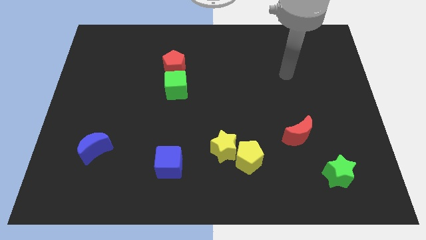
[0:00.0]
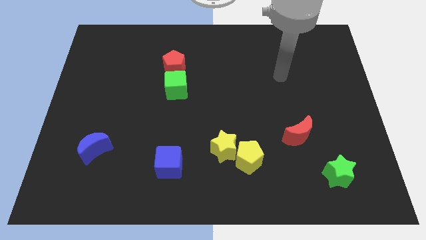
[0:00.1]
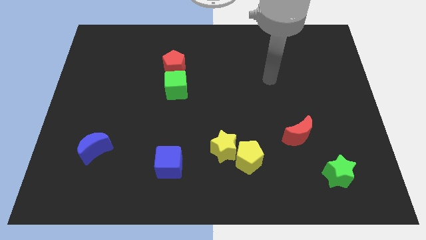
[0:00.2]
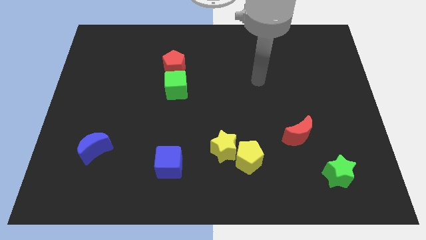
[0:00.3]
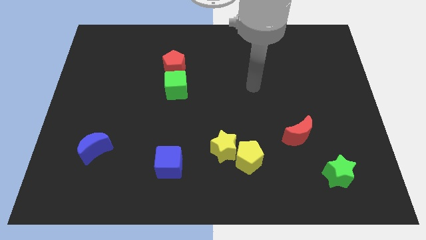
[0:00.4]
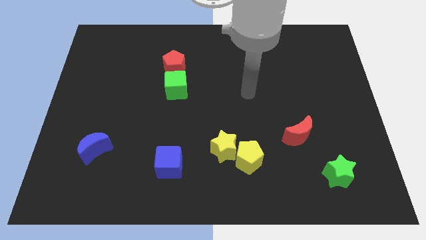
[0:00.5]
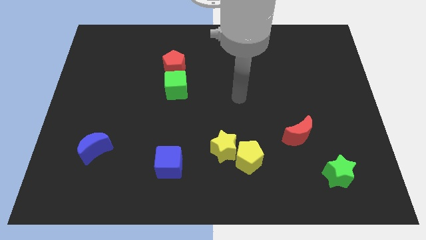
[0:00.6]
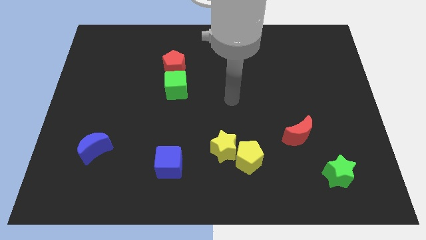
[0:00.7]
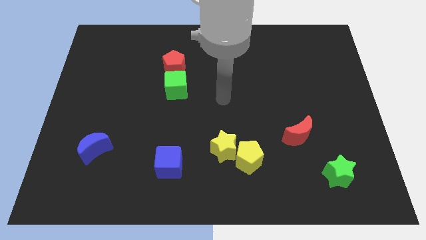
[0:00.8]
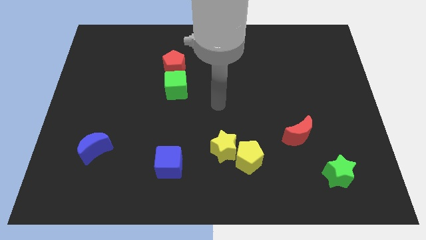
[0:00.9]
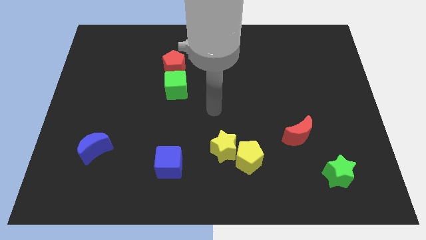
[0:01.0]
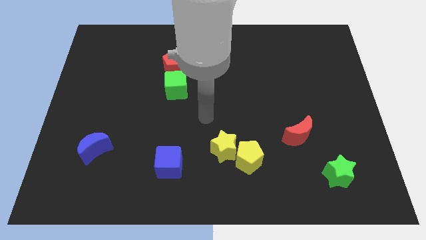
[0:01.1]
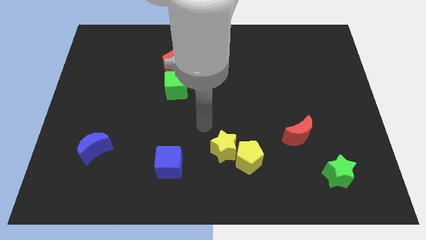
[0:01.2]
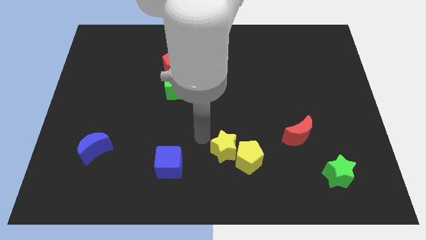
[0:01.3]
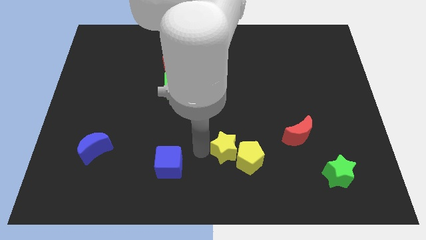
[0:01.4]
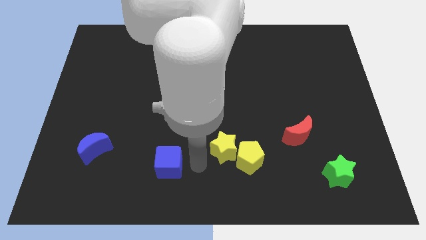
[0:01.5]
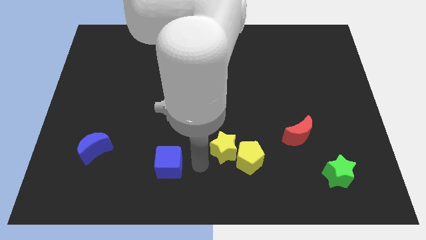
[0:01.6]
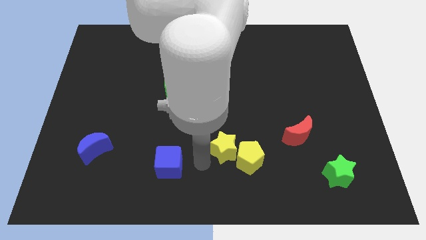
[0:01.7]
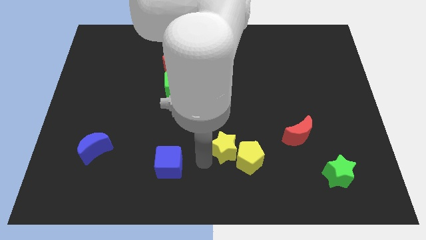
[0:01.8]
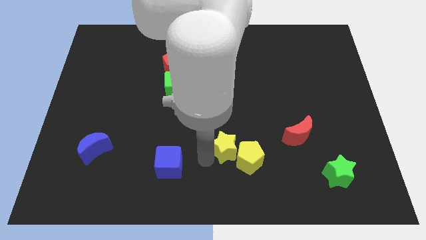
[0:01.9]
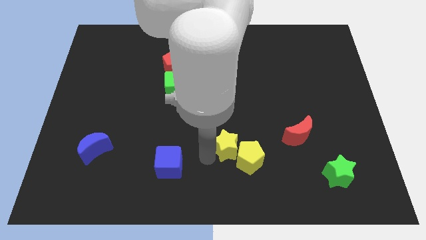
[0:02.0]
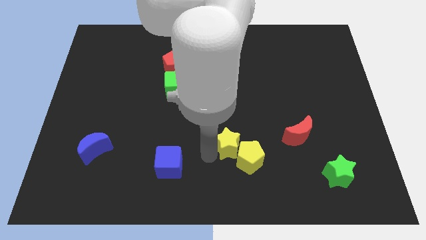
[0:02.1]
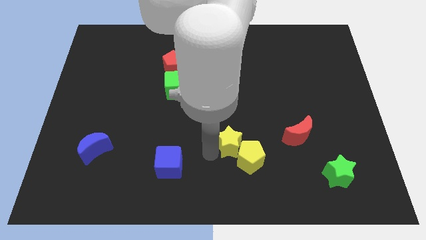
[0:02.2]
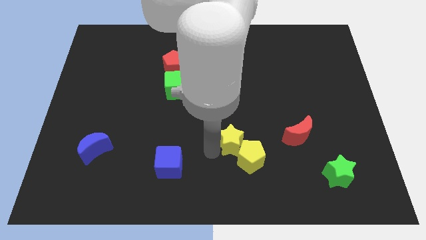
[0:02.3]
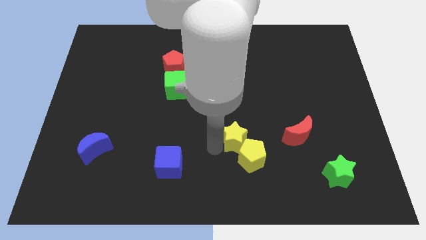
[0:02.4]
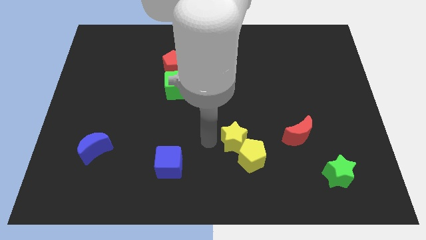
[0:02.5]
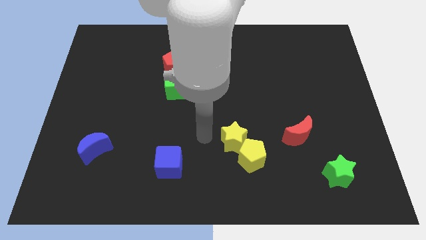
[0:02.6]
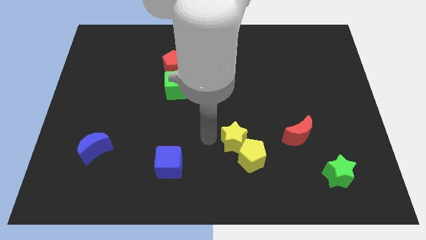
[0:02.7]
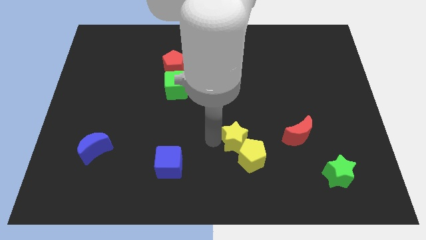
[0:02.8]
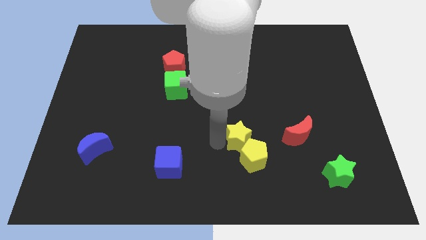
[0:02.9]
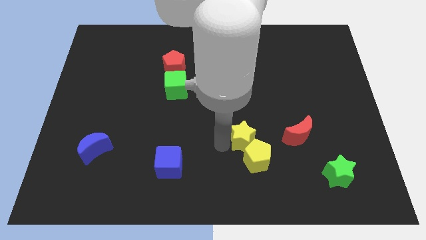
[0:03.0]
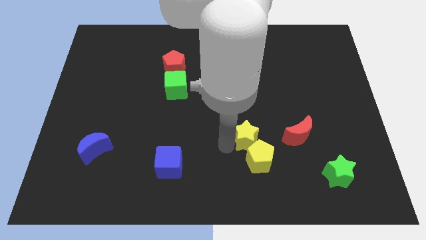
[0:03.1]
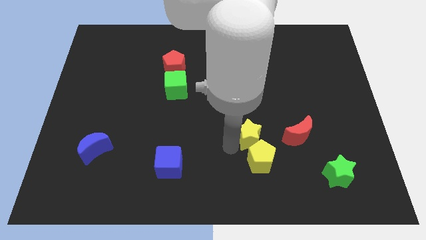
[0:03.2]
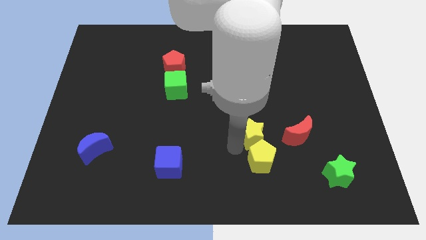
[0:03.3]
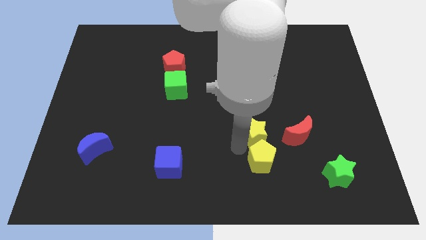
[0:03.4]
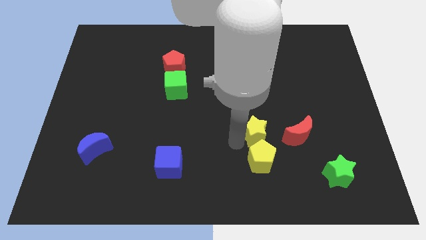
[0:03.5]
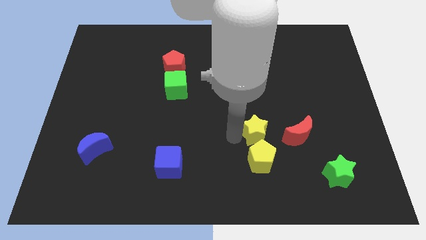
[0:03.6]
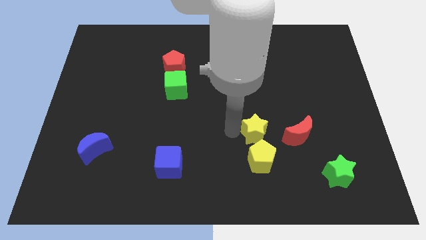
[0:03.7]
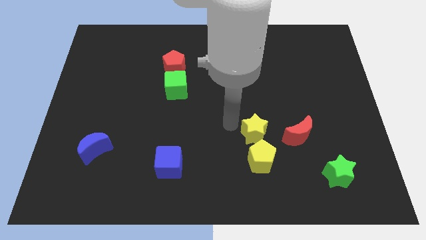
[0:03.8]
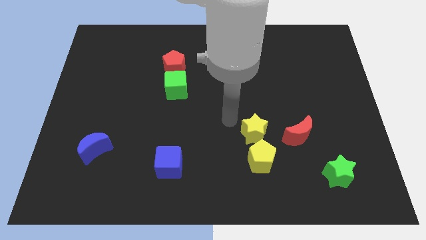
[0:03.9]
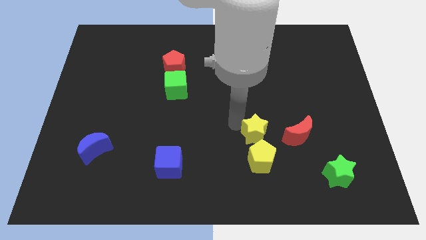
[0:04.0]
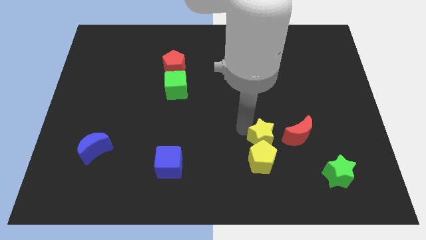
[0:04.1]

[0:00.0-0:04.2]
slightly push the yellow star right

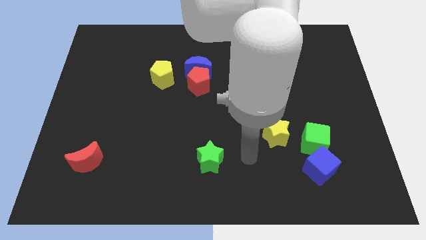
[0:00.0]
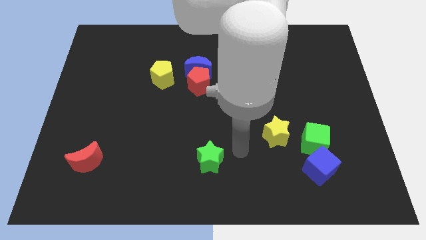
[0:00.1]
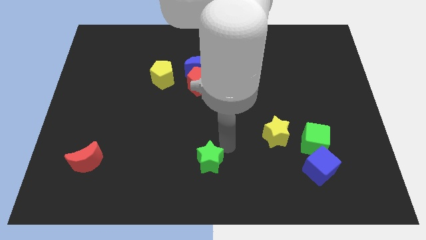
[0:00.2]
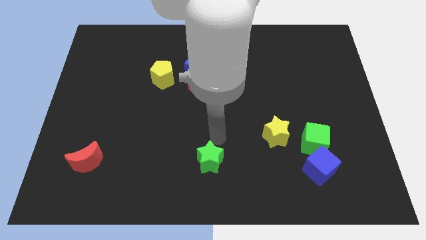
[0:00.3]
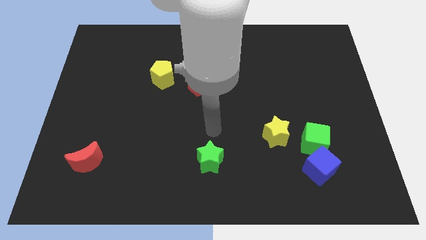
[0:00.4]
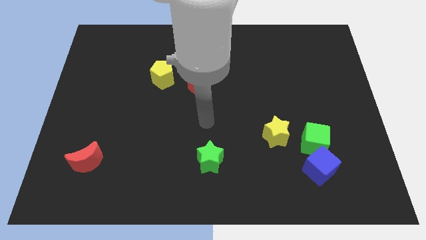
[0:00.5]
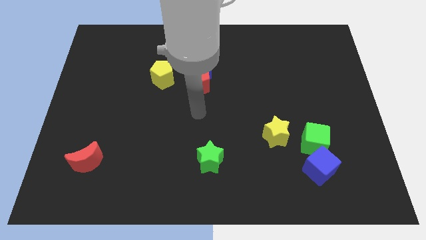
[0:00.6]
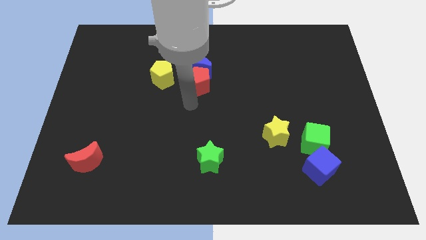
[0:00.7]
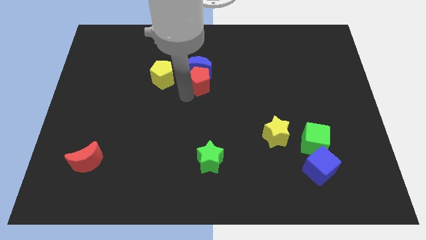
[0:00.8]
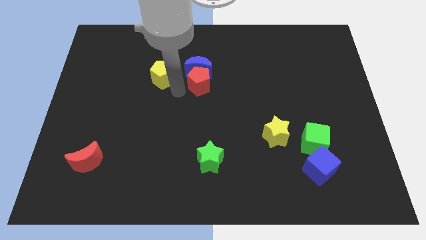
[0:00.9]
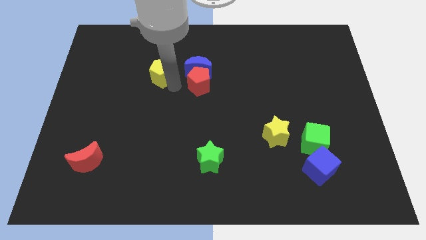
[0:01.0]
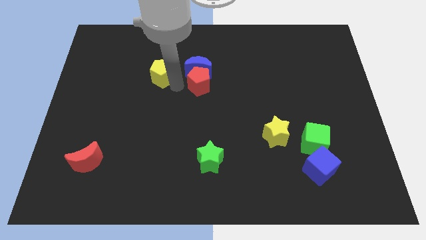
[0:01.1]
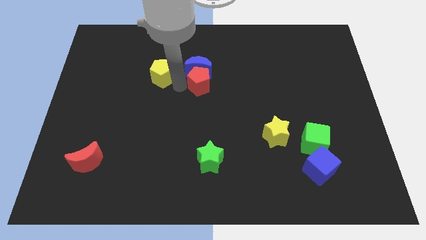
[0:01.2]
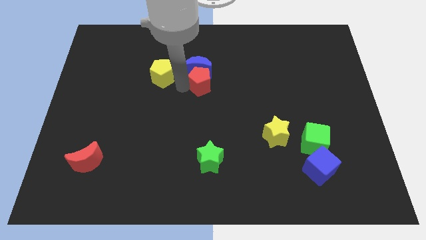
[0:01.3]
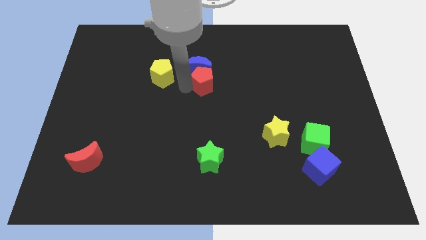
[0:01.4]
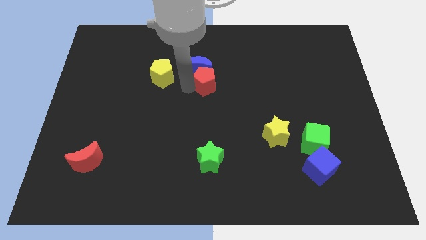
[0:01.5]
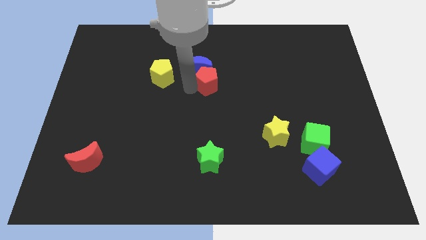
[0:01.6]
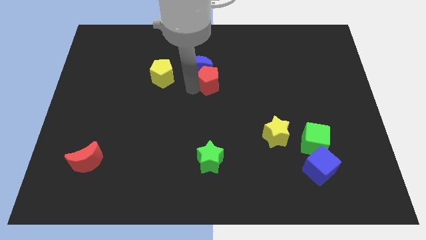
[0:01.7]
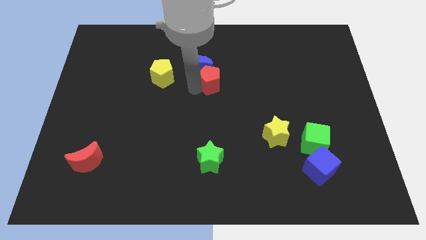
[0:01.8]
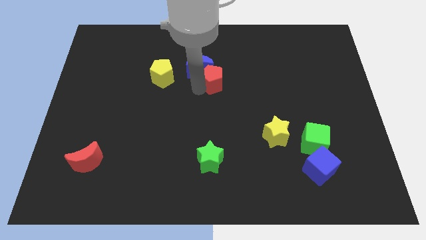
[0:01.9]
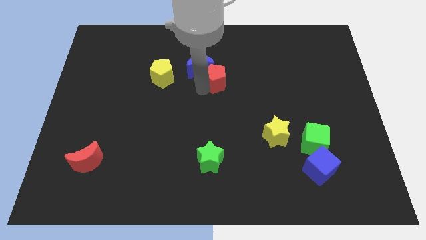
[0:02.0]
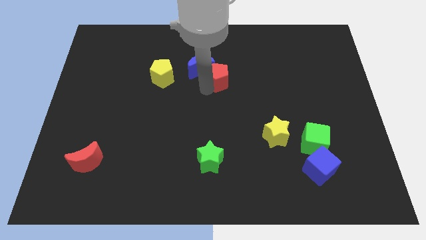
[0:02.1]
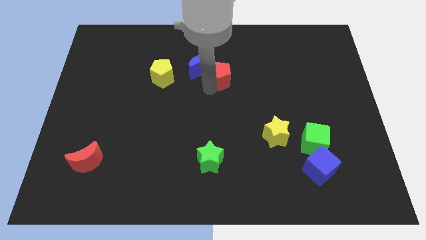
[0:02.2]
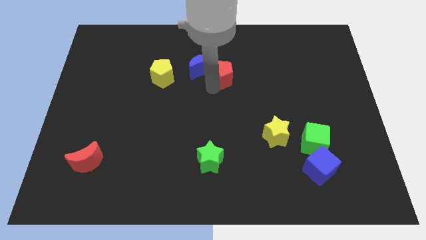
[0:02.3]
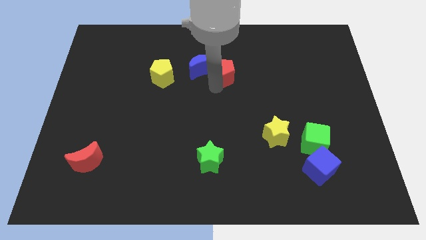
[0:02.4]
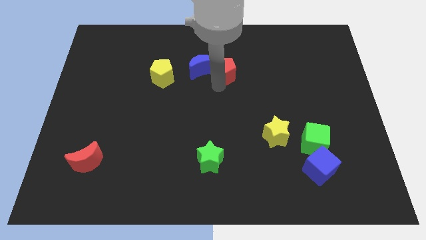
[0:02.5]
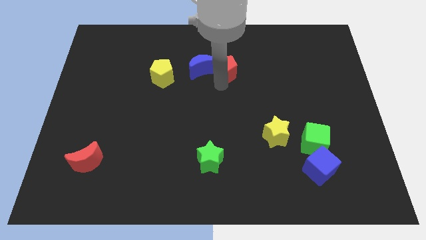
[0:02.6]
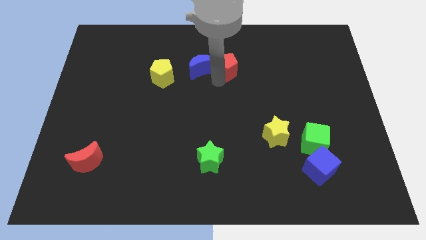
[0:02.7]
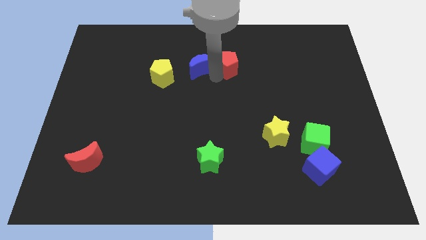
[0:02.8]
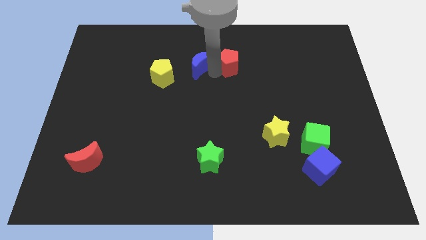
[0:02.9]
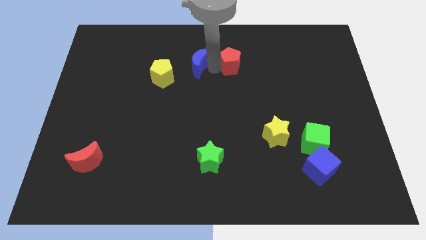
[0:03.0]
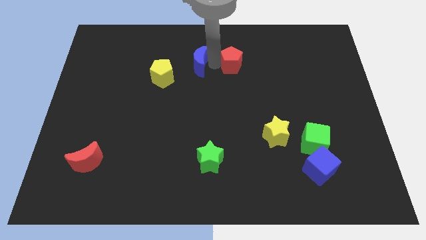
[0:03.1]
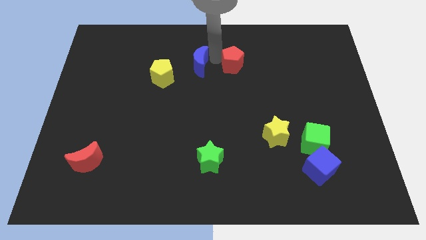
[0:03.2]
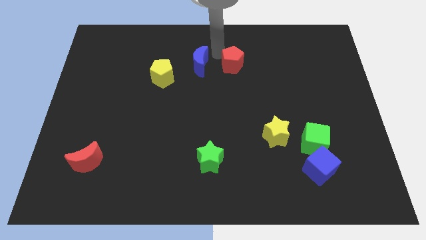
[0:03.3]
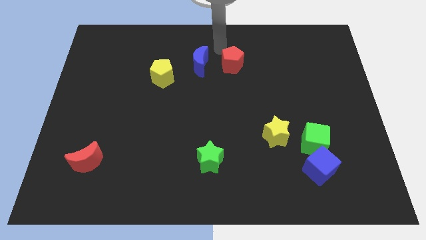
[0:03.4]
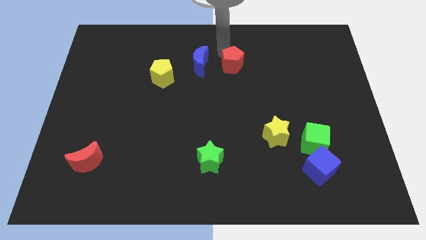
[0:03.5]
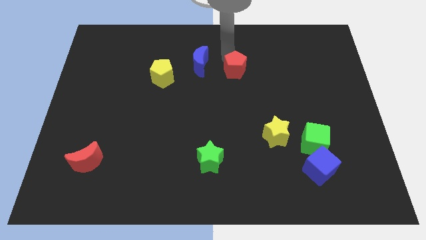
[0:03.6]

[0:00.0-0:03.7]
slide the red pentagon a little bit to the right

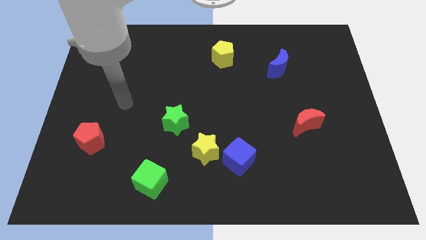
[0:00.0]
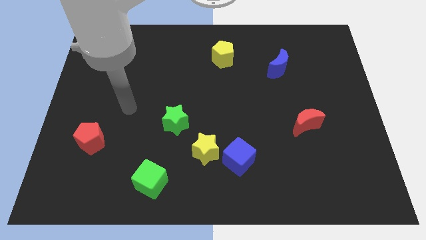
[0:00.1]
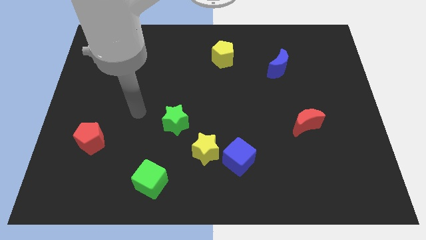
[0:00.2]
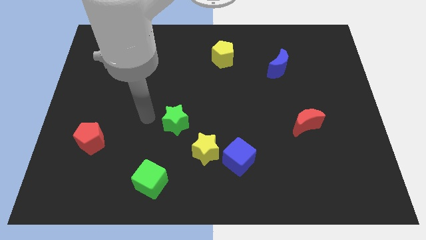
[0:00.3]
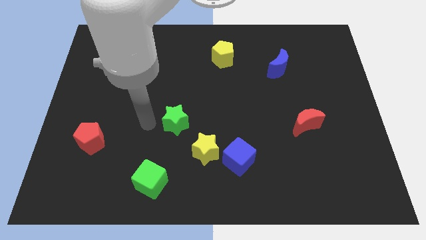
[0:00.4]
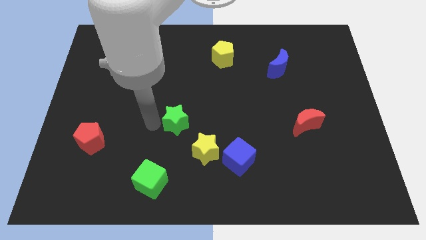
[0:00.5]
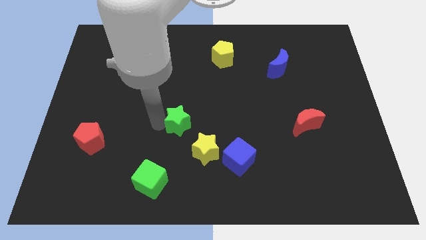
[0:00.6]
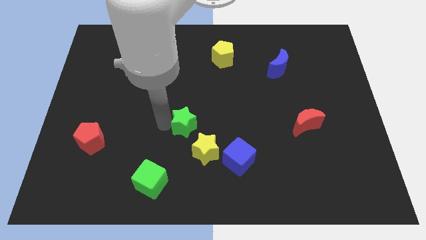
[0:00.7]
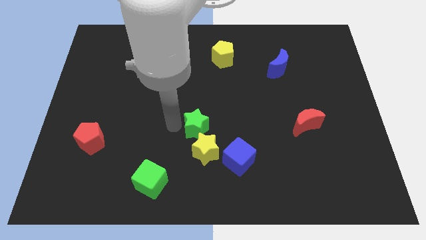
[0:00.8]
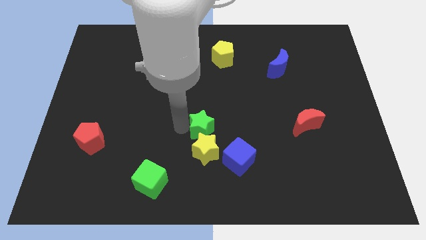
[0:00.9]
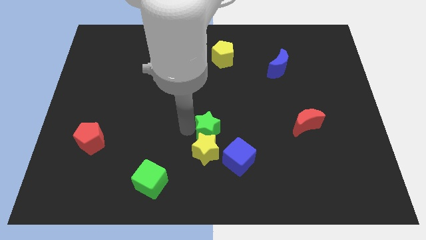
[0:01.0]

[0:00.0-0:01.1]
move the green star a bit to the right
